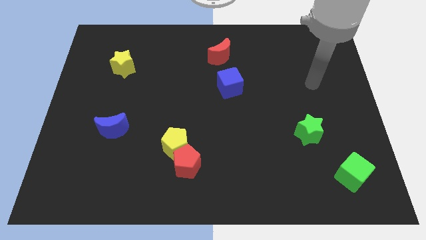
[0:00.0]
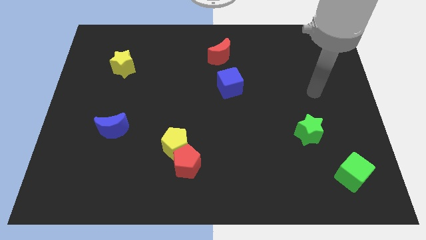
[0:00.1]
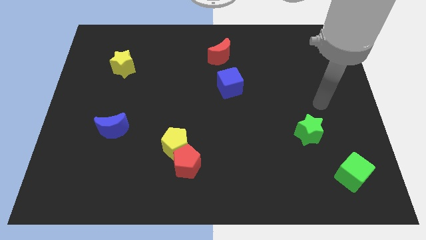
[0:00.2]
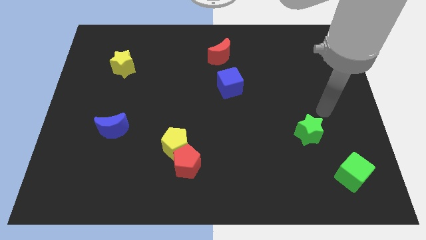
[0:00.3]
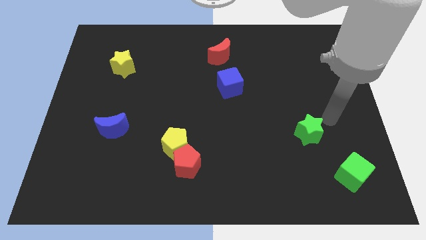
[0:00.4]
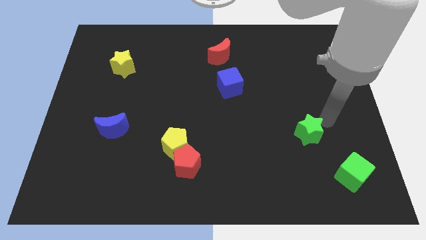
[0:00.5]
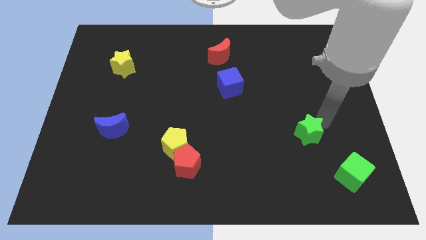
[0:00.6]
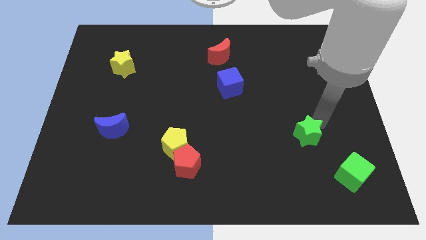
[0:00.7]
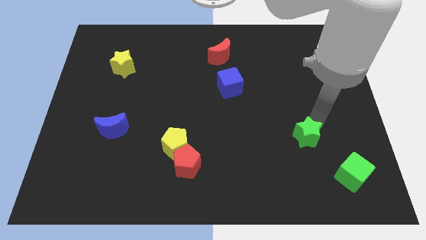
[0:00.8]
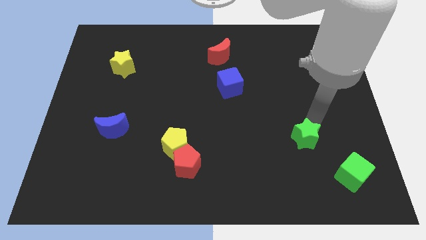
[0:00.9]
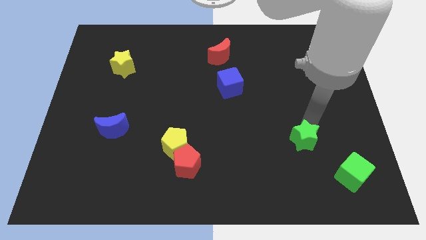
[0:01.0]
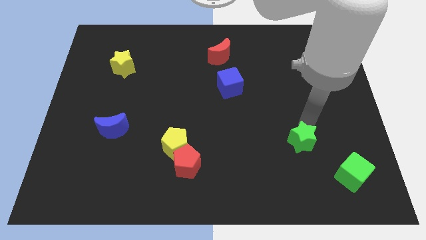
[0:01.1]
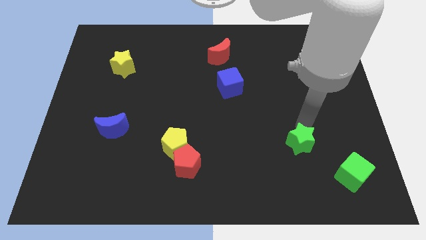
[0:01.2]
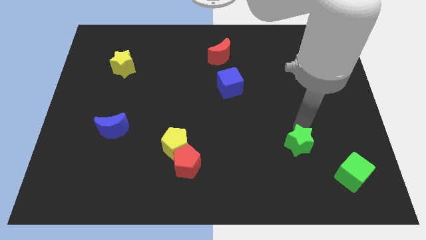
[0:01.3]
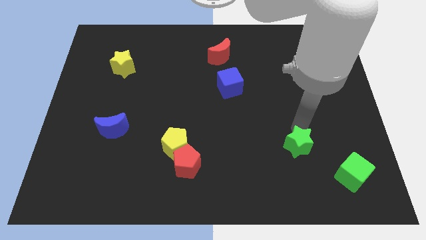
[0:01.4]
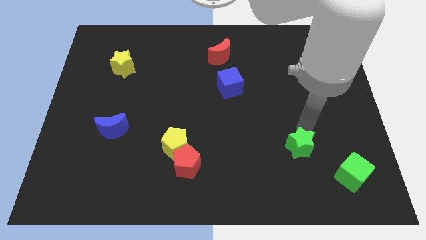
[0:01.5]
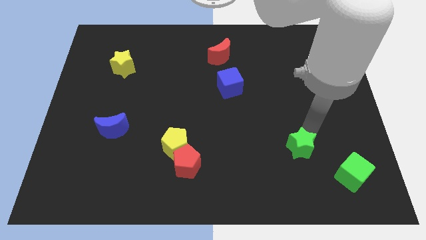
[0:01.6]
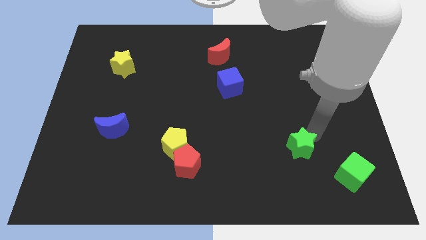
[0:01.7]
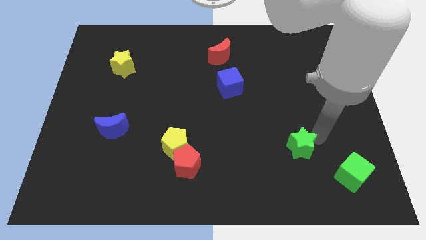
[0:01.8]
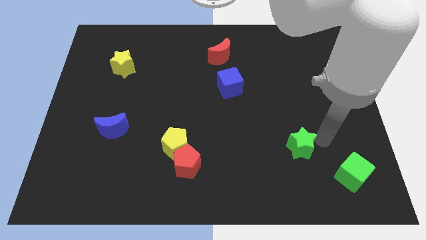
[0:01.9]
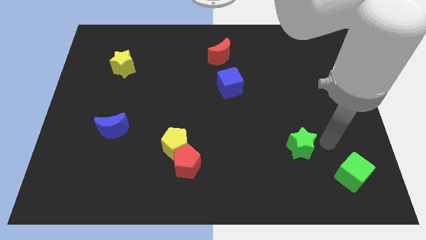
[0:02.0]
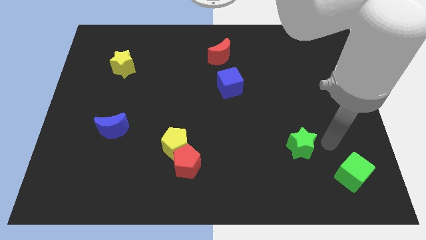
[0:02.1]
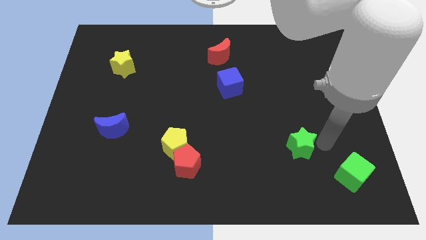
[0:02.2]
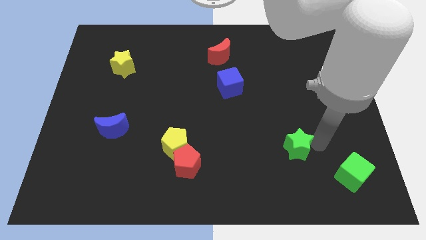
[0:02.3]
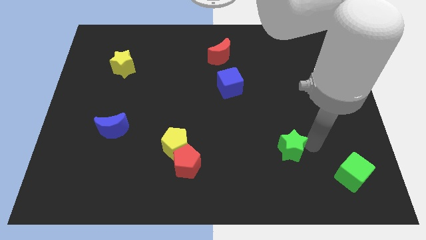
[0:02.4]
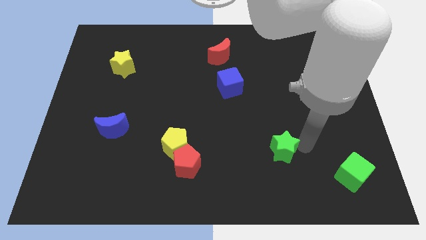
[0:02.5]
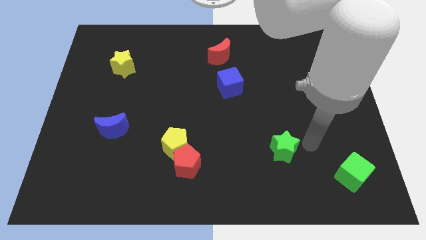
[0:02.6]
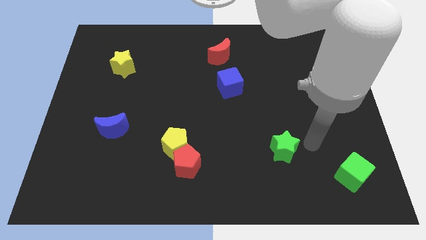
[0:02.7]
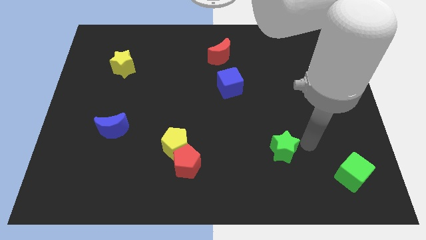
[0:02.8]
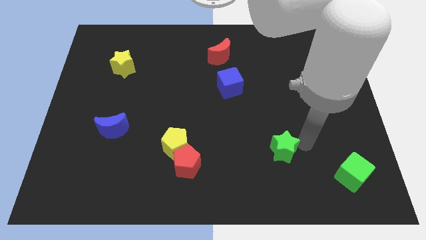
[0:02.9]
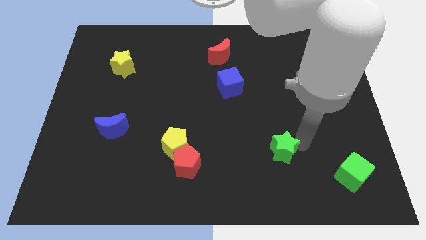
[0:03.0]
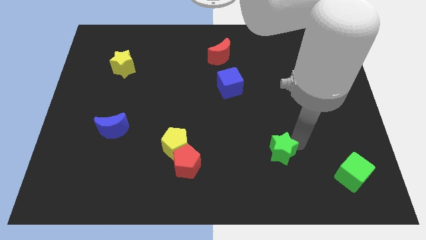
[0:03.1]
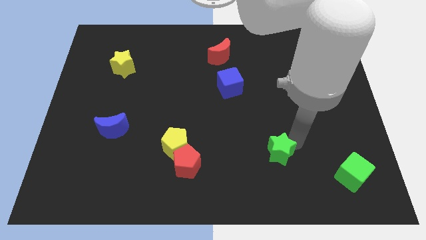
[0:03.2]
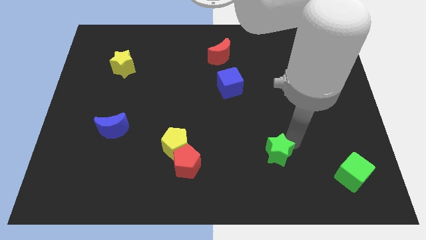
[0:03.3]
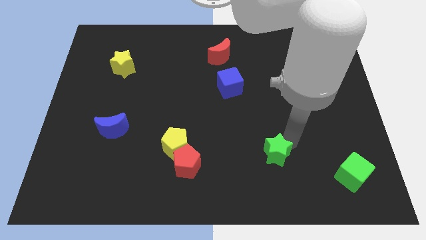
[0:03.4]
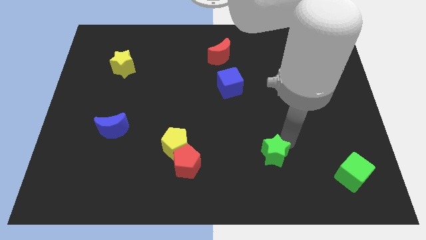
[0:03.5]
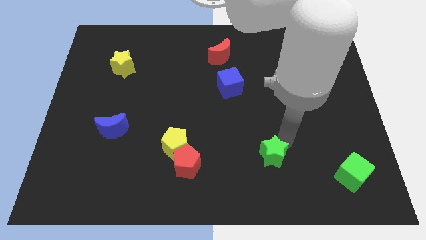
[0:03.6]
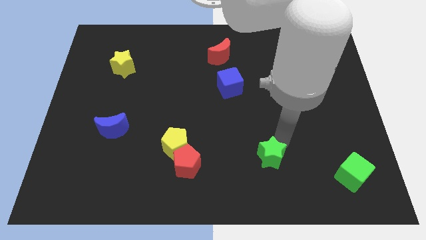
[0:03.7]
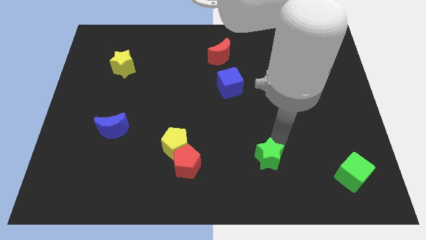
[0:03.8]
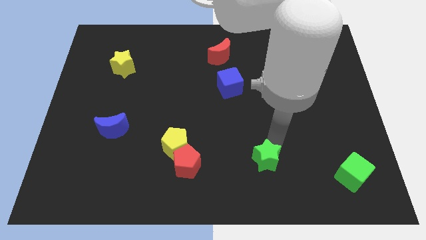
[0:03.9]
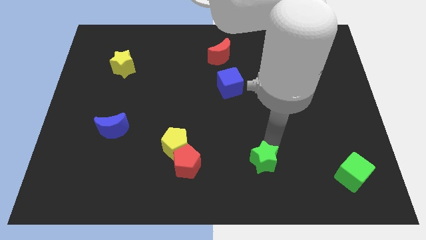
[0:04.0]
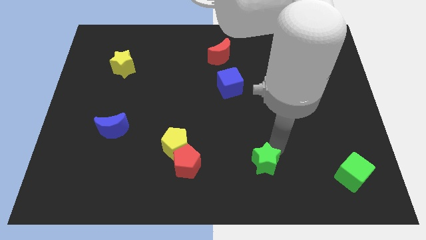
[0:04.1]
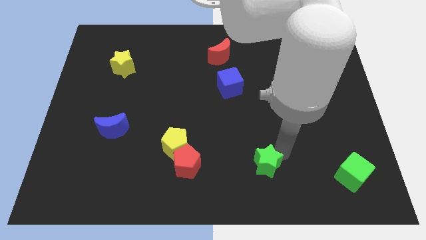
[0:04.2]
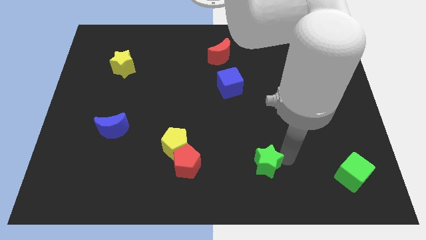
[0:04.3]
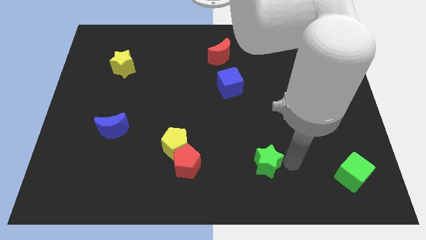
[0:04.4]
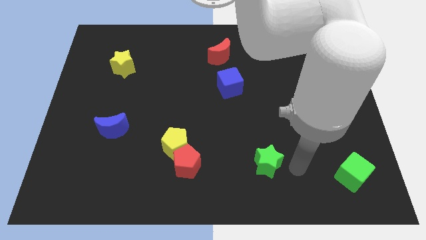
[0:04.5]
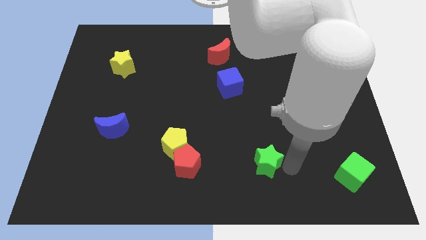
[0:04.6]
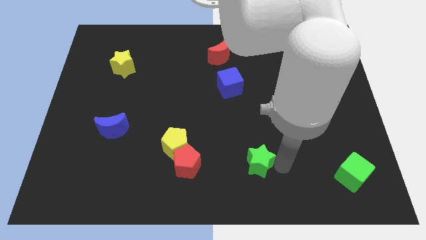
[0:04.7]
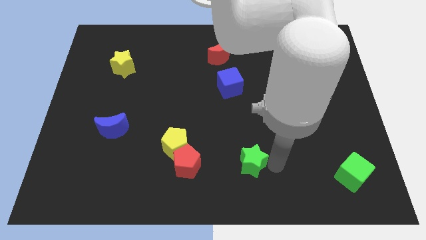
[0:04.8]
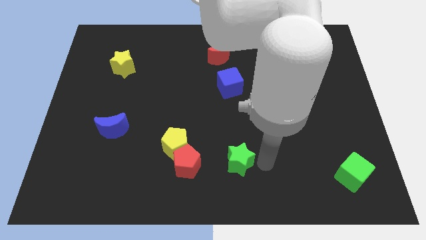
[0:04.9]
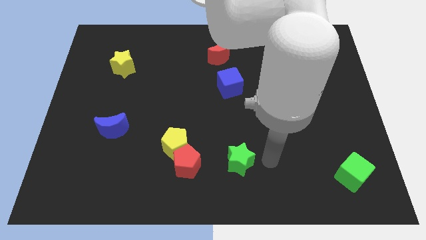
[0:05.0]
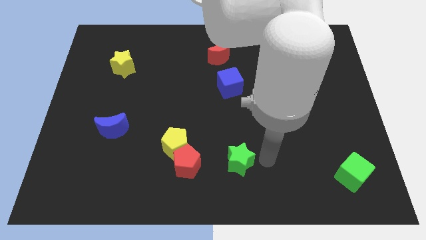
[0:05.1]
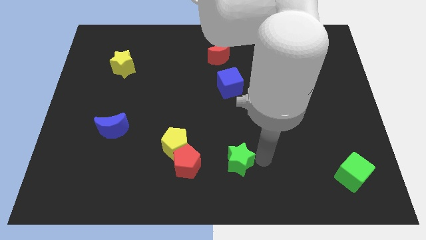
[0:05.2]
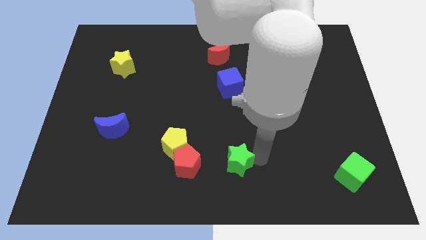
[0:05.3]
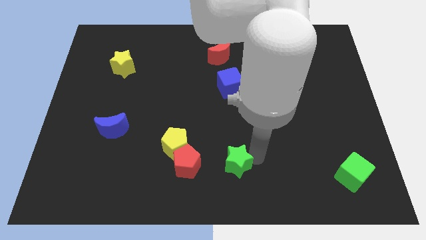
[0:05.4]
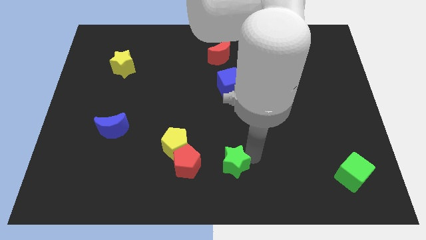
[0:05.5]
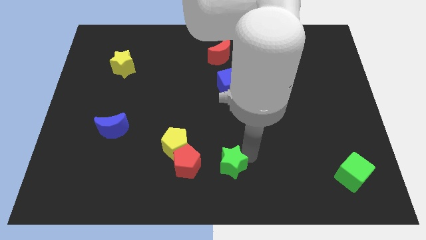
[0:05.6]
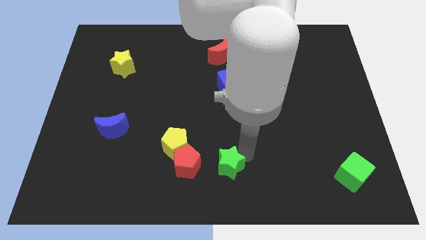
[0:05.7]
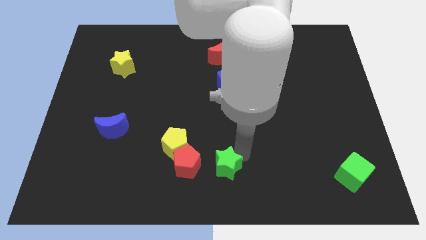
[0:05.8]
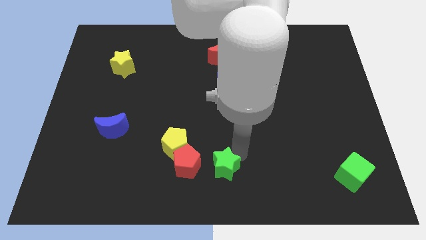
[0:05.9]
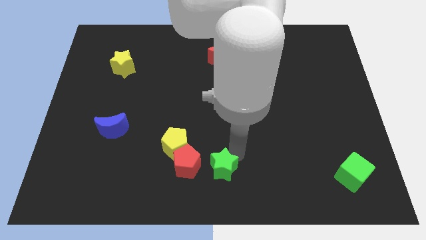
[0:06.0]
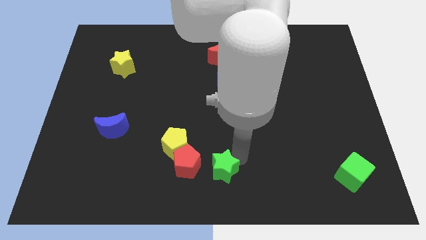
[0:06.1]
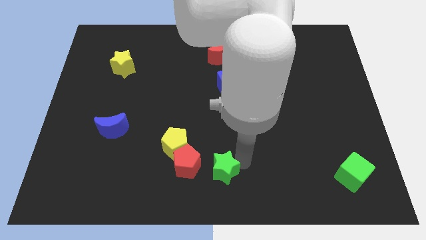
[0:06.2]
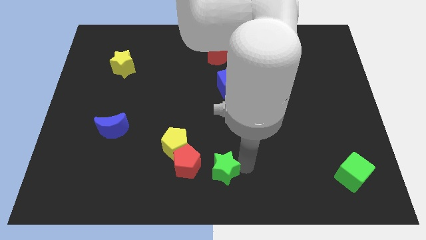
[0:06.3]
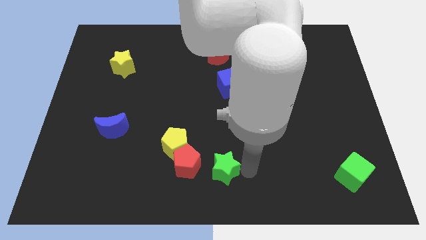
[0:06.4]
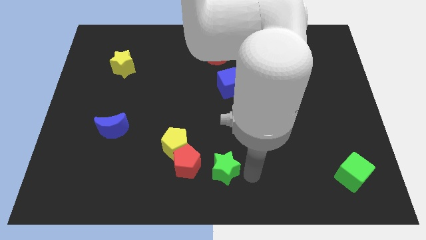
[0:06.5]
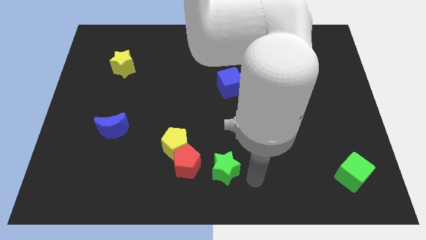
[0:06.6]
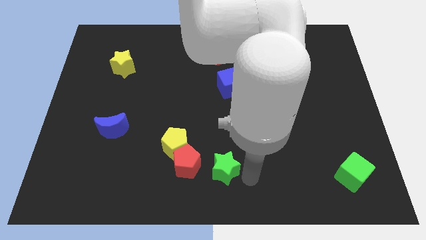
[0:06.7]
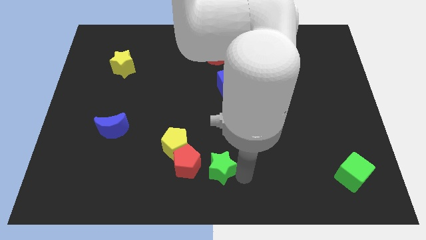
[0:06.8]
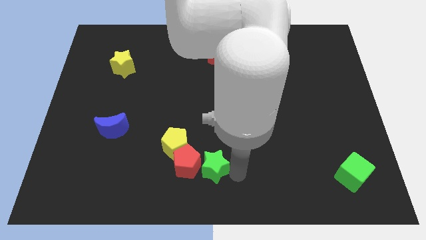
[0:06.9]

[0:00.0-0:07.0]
push the green star to the red pentagon

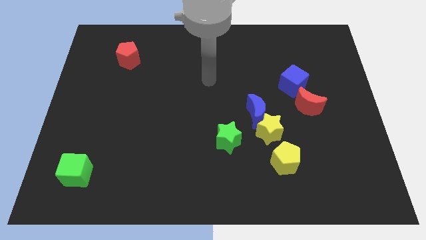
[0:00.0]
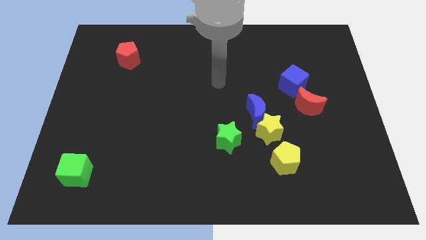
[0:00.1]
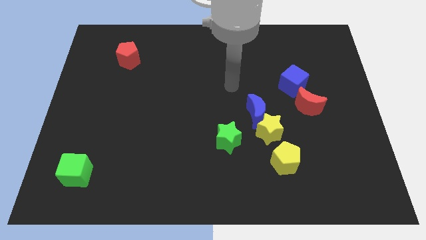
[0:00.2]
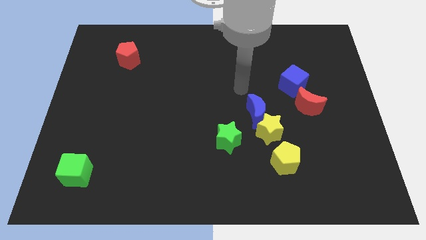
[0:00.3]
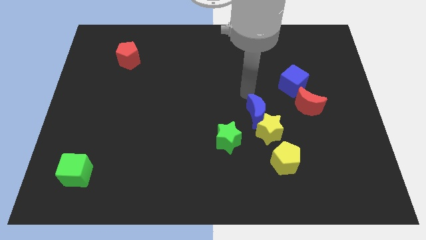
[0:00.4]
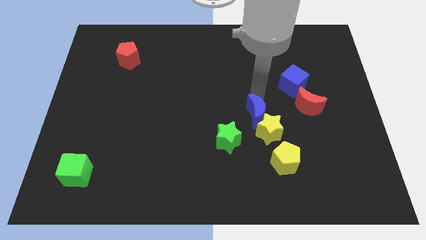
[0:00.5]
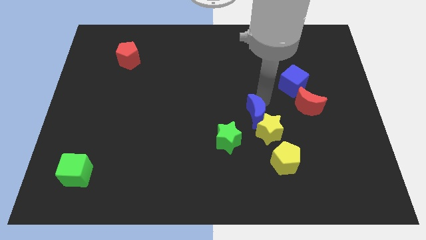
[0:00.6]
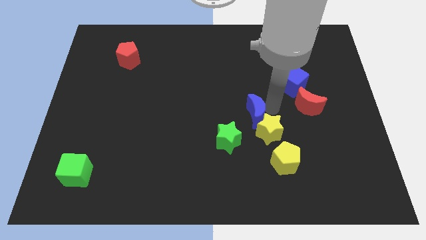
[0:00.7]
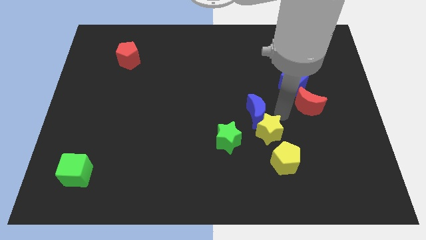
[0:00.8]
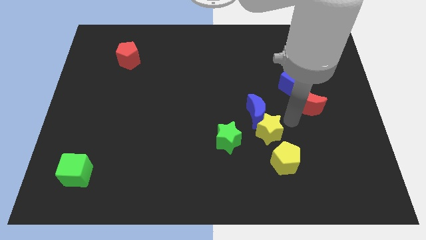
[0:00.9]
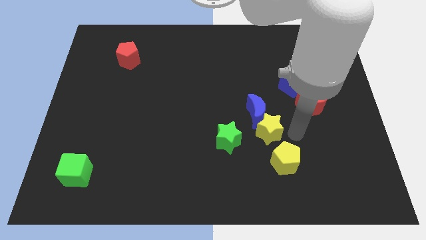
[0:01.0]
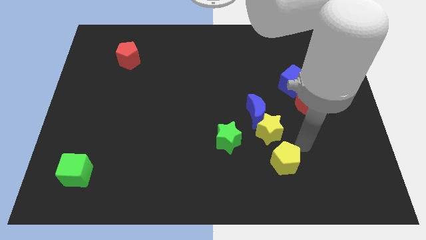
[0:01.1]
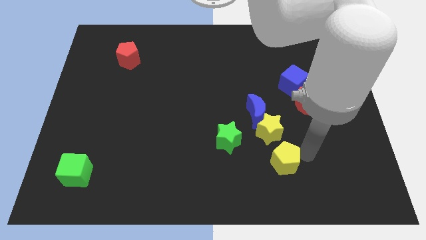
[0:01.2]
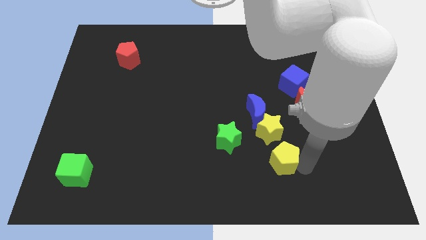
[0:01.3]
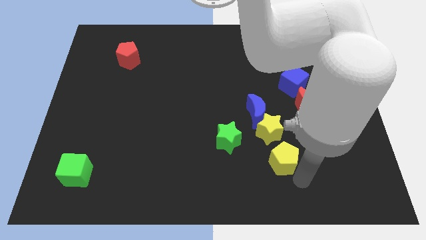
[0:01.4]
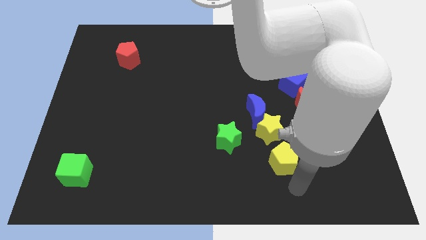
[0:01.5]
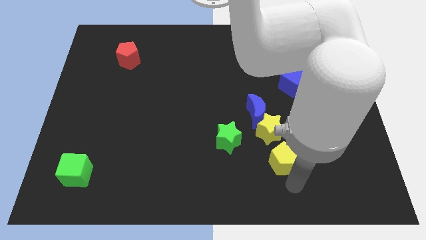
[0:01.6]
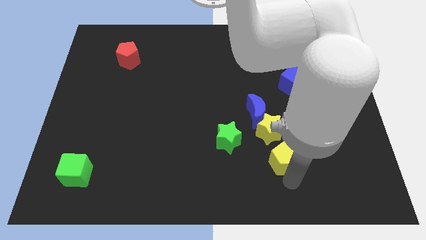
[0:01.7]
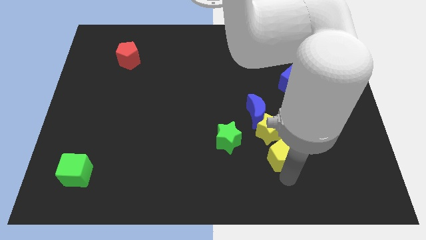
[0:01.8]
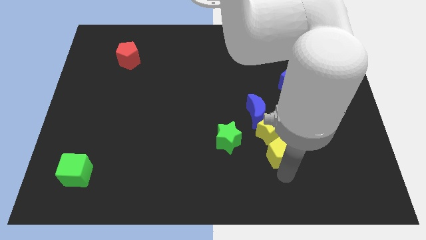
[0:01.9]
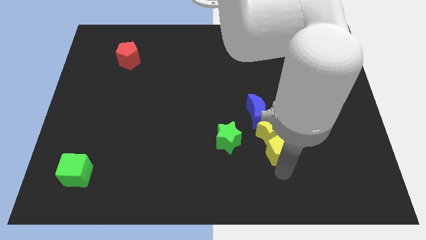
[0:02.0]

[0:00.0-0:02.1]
slide the yellow pentagon next to the yellow star
